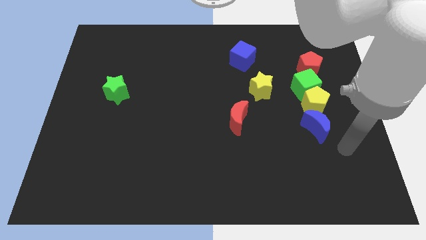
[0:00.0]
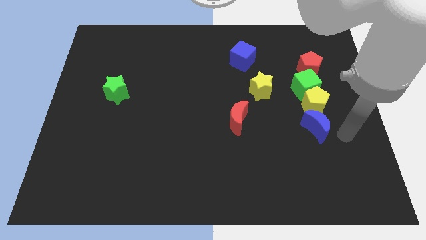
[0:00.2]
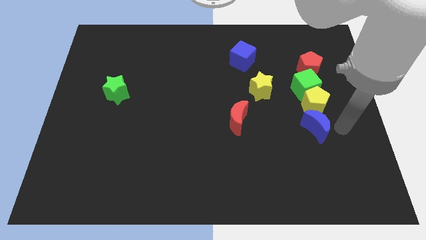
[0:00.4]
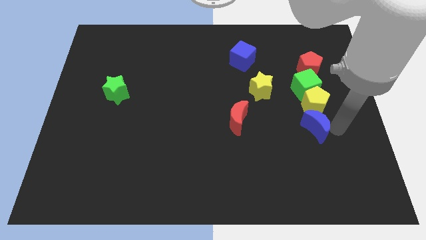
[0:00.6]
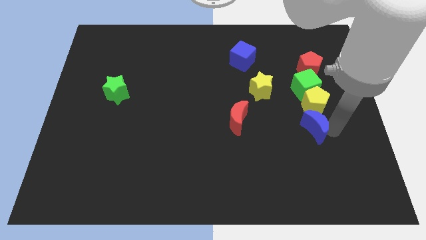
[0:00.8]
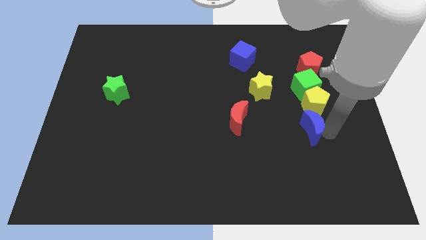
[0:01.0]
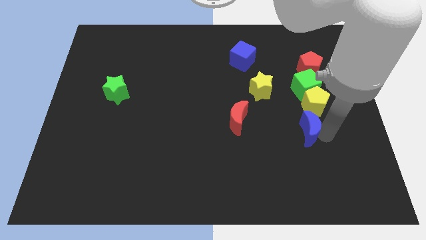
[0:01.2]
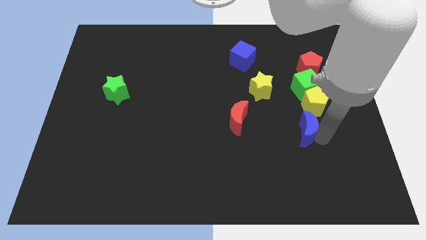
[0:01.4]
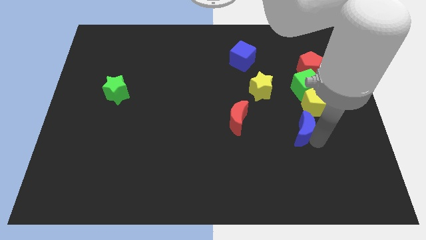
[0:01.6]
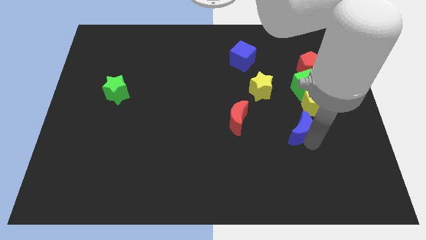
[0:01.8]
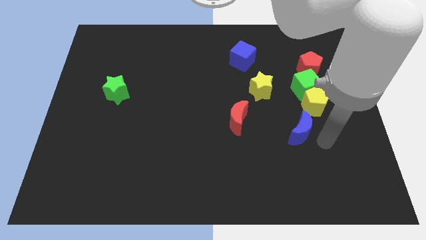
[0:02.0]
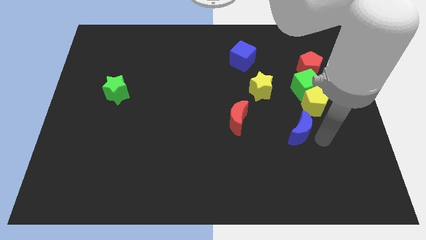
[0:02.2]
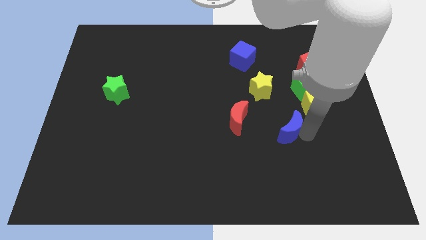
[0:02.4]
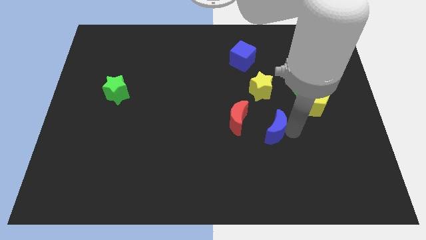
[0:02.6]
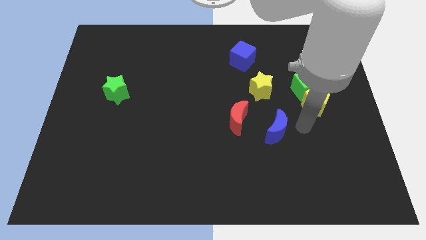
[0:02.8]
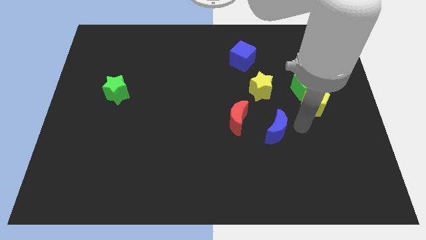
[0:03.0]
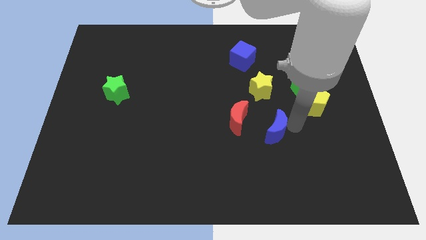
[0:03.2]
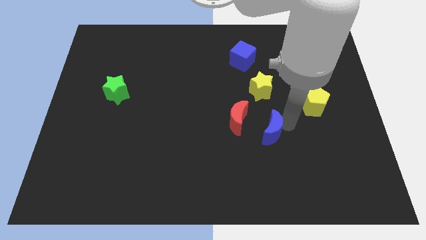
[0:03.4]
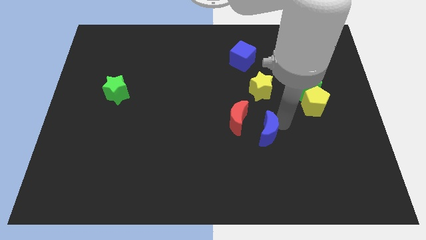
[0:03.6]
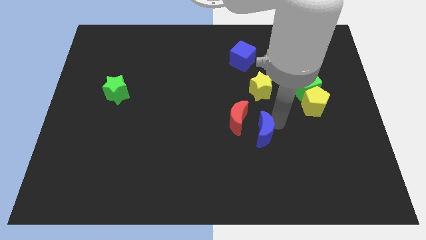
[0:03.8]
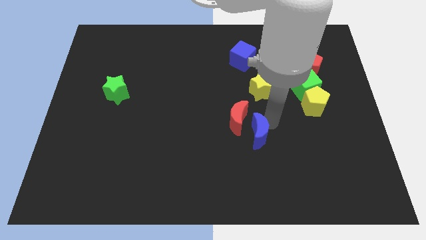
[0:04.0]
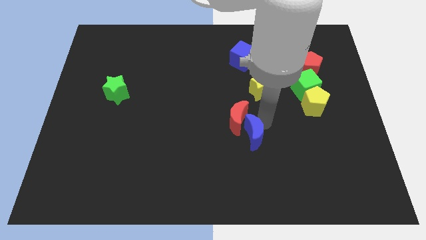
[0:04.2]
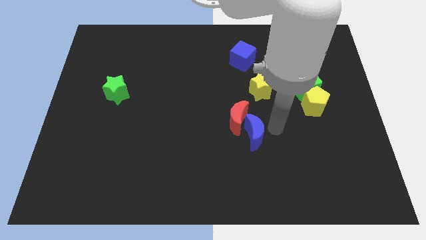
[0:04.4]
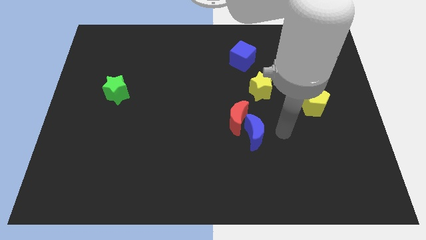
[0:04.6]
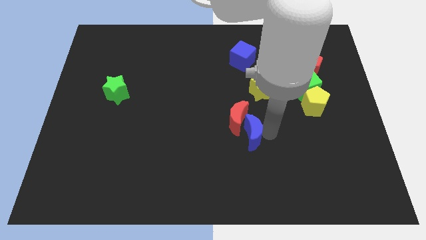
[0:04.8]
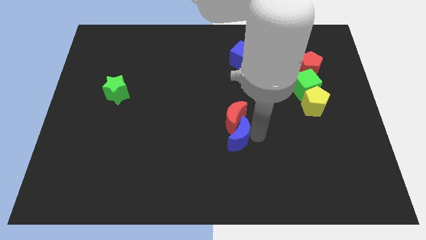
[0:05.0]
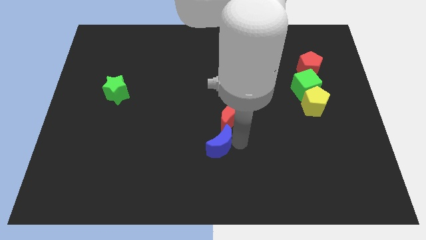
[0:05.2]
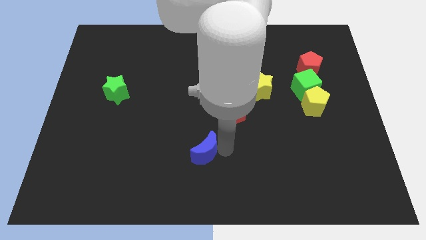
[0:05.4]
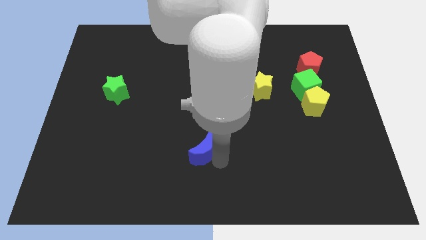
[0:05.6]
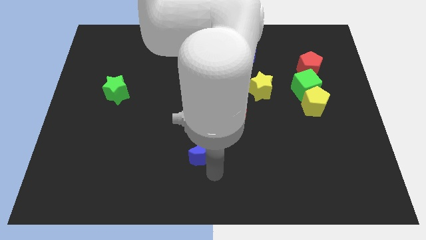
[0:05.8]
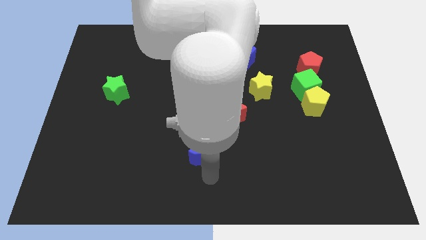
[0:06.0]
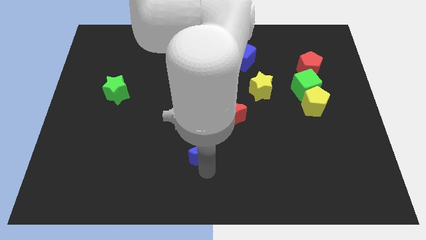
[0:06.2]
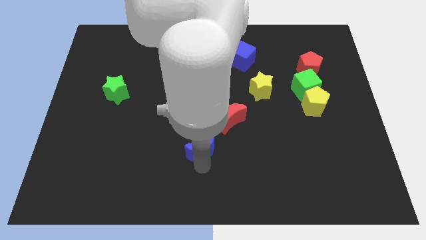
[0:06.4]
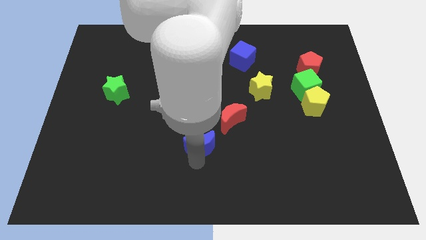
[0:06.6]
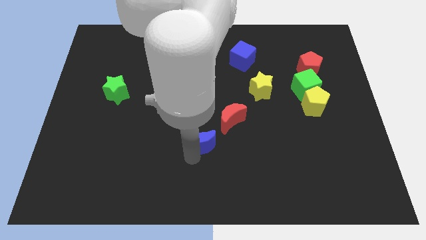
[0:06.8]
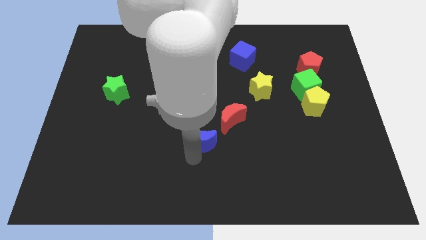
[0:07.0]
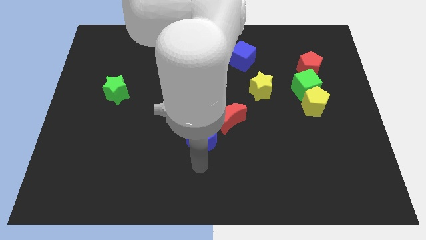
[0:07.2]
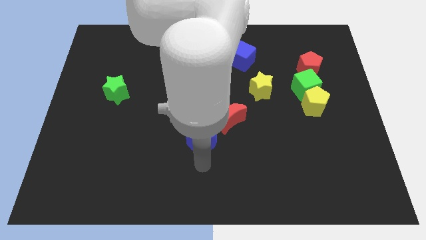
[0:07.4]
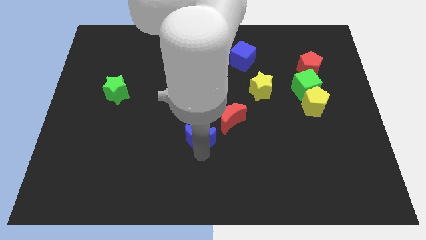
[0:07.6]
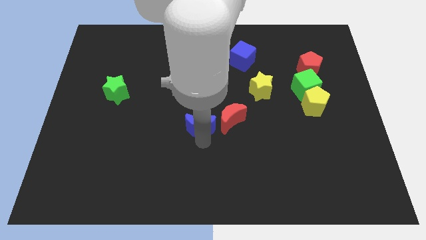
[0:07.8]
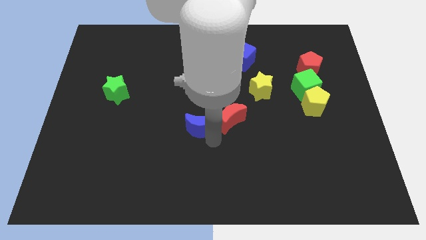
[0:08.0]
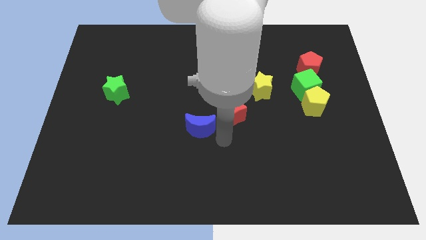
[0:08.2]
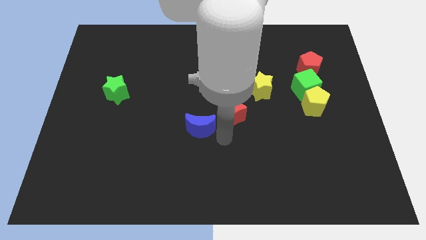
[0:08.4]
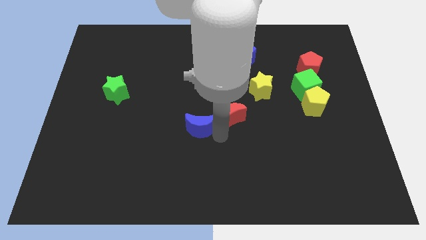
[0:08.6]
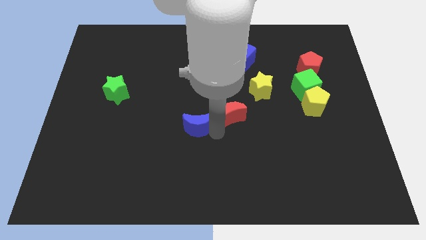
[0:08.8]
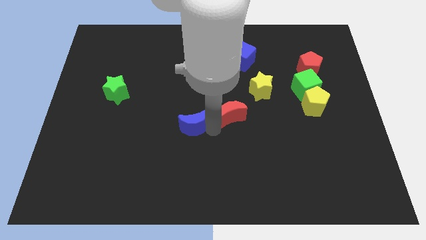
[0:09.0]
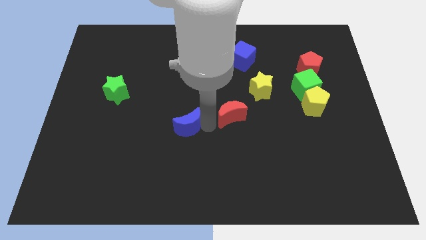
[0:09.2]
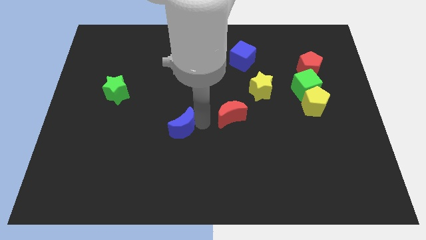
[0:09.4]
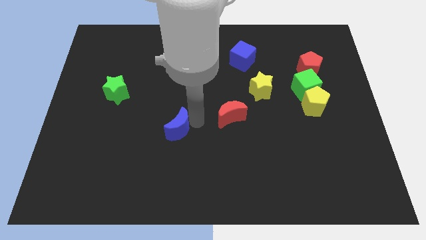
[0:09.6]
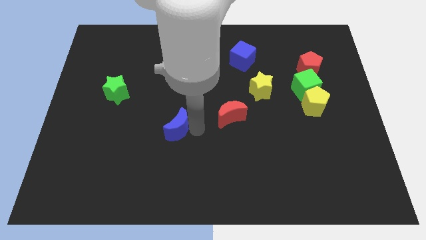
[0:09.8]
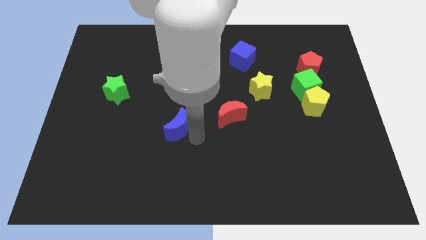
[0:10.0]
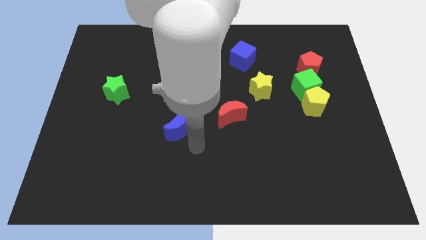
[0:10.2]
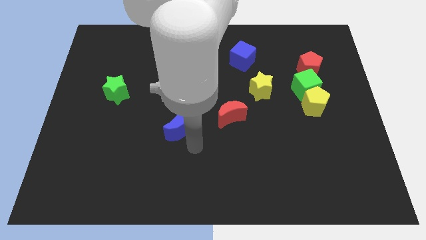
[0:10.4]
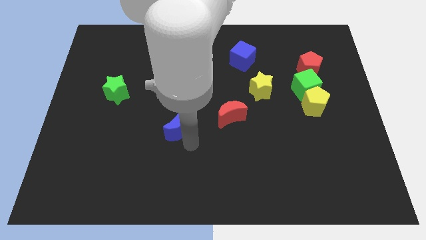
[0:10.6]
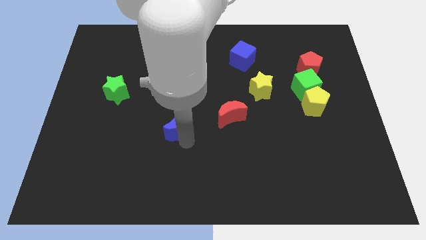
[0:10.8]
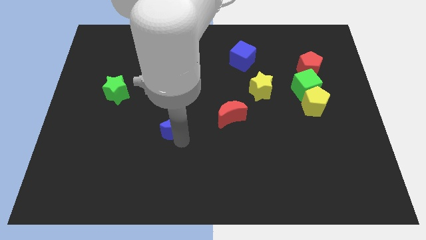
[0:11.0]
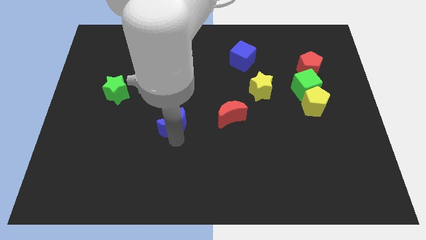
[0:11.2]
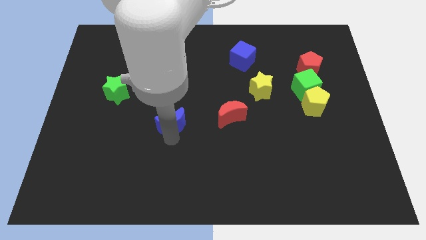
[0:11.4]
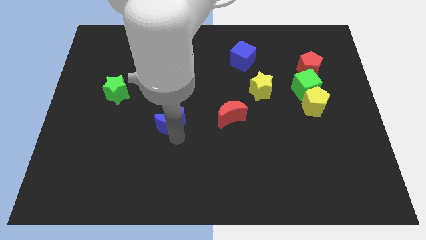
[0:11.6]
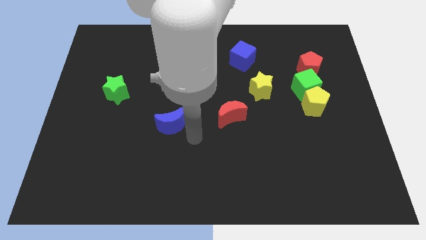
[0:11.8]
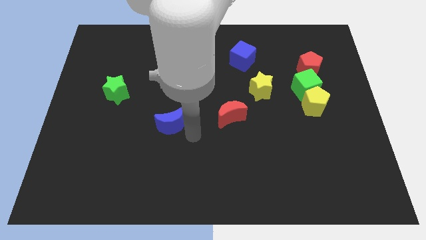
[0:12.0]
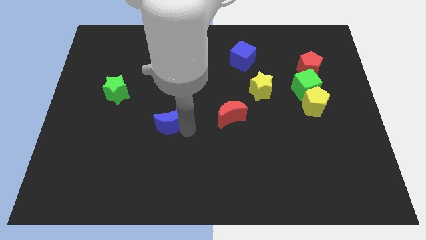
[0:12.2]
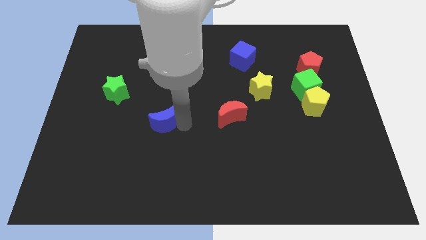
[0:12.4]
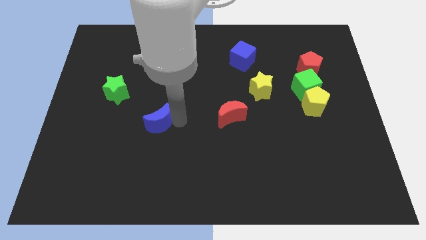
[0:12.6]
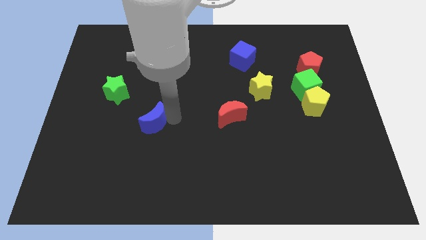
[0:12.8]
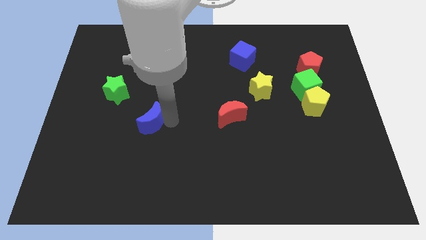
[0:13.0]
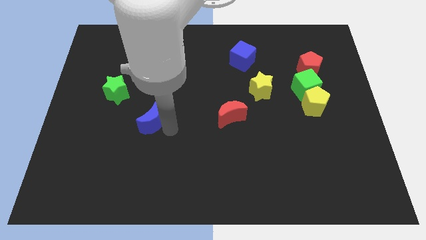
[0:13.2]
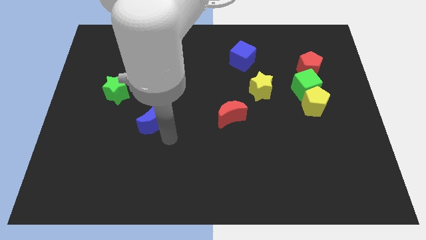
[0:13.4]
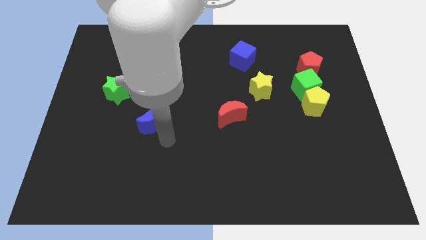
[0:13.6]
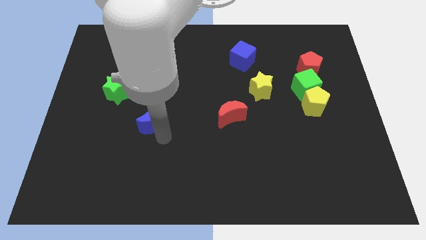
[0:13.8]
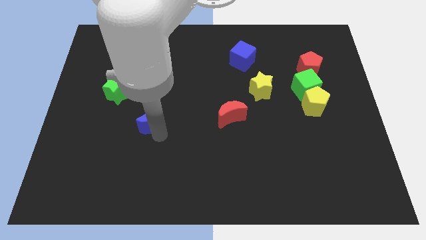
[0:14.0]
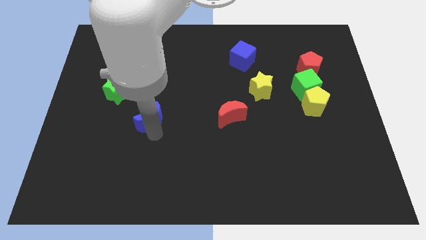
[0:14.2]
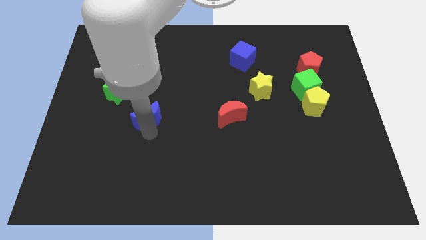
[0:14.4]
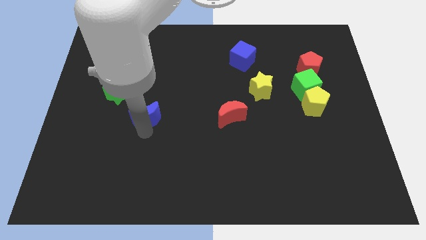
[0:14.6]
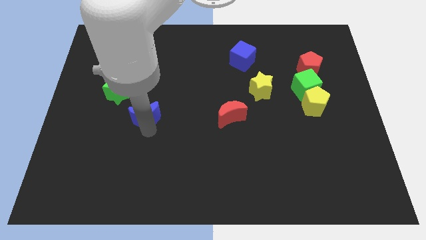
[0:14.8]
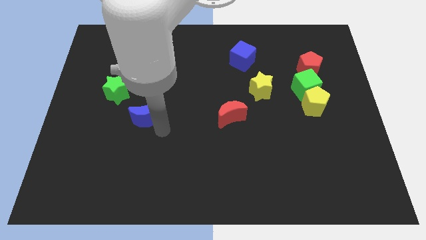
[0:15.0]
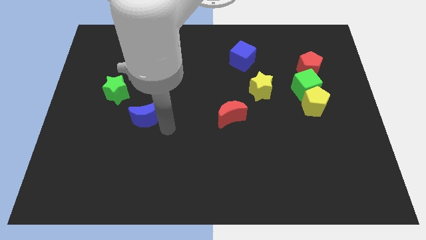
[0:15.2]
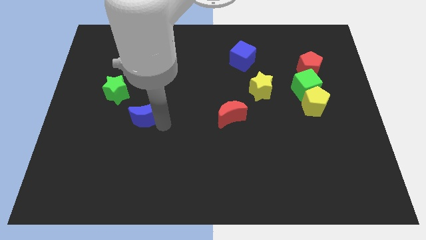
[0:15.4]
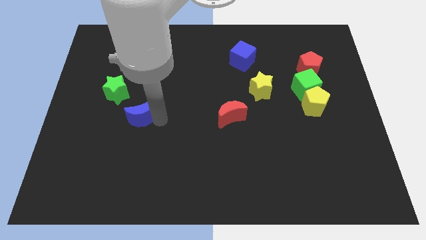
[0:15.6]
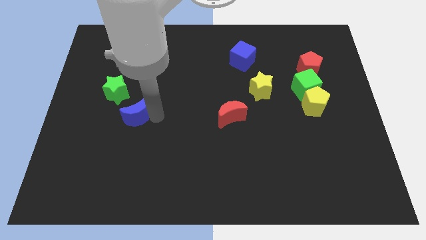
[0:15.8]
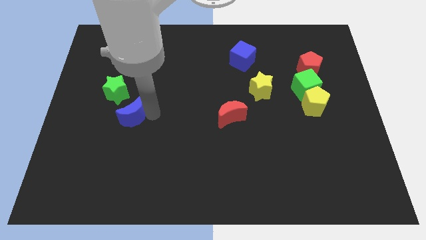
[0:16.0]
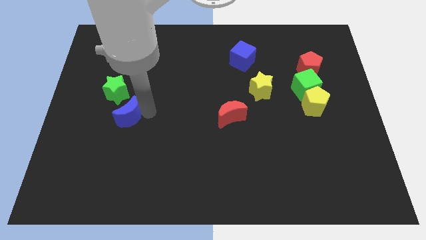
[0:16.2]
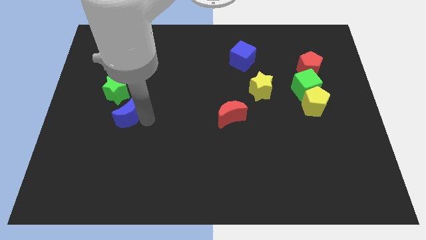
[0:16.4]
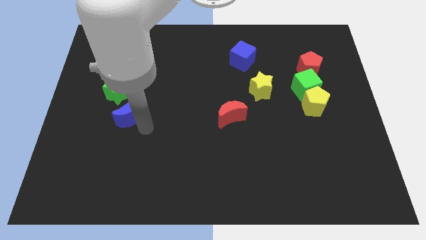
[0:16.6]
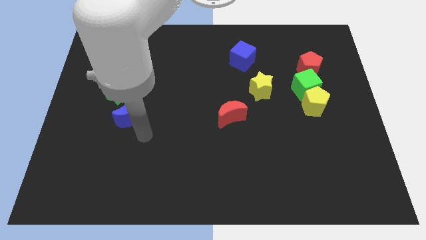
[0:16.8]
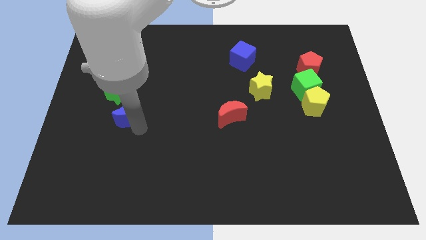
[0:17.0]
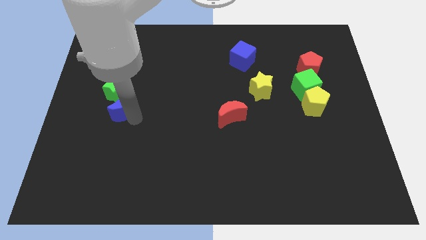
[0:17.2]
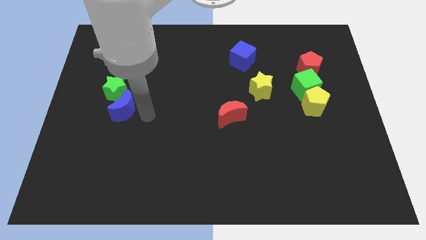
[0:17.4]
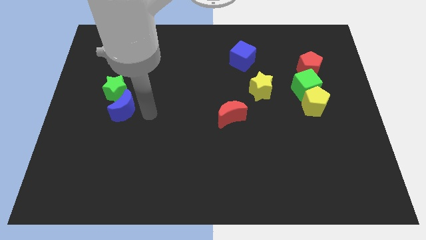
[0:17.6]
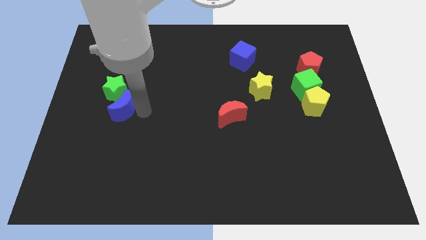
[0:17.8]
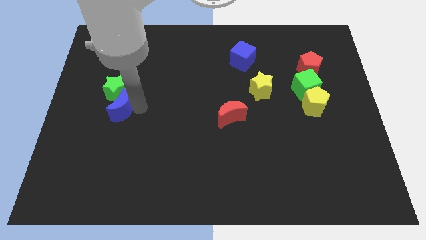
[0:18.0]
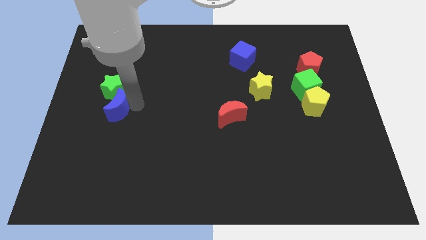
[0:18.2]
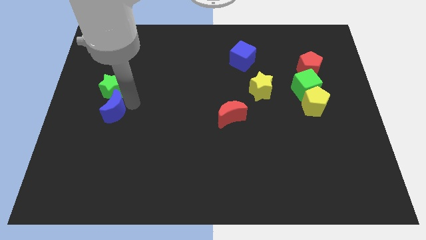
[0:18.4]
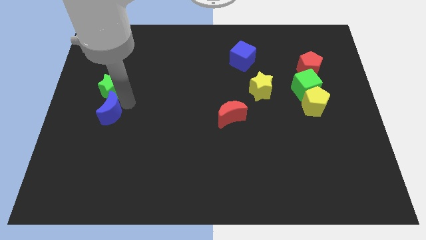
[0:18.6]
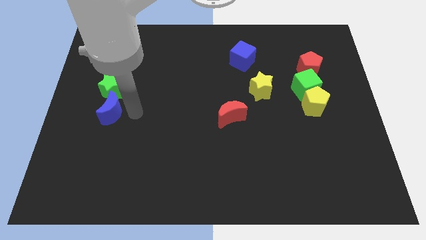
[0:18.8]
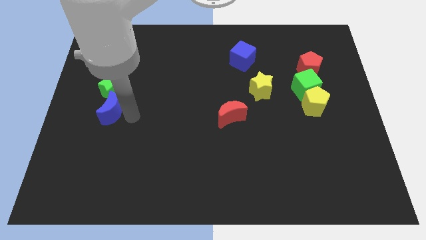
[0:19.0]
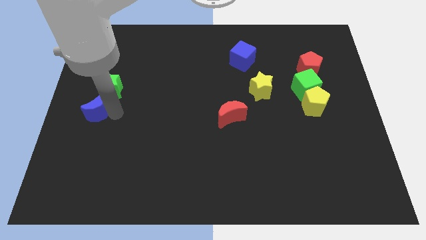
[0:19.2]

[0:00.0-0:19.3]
move the blue moon to the left side
